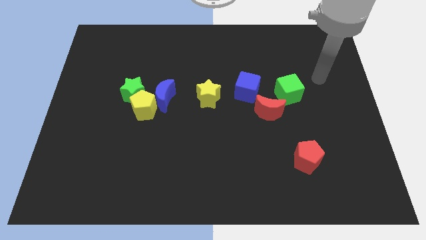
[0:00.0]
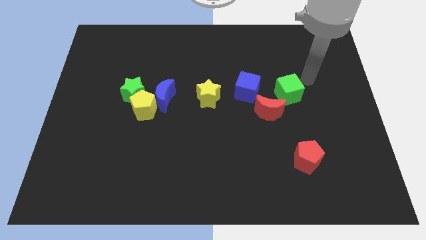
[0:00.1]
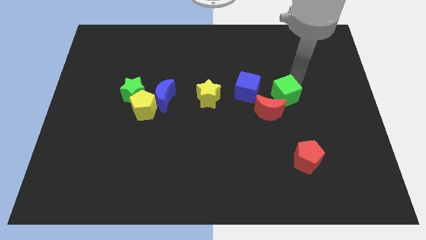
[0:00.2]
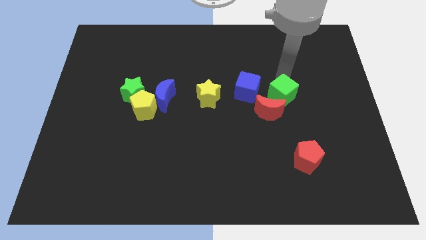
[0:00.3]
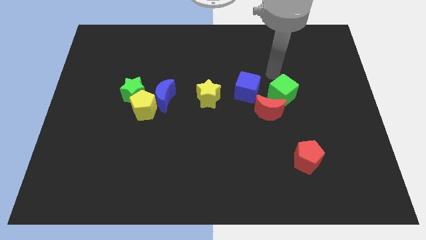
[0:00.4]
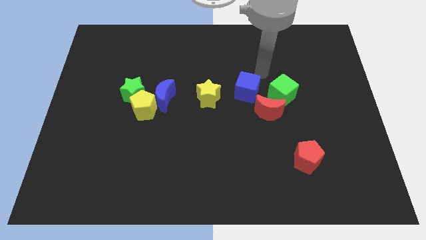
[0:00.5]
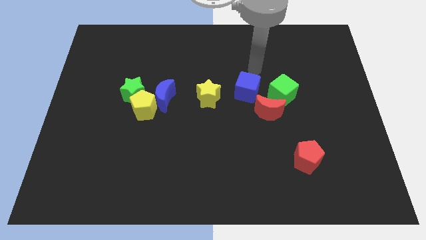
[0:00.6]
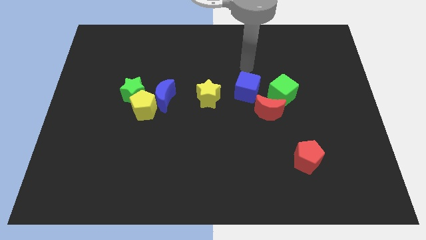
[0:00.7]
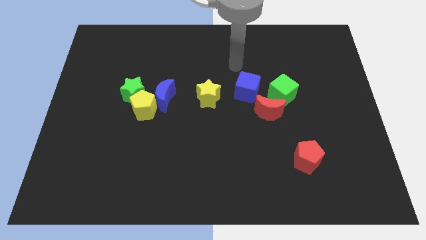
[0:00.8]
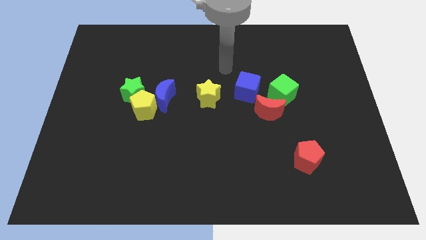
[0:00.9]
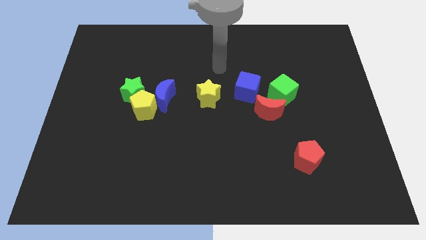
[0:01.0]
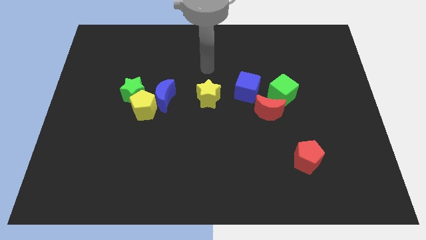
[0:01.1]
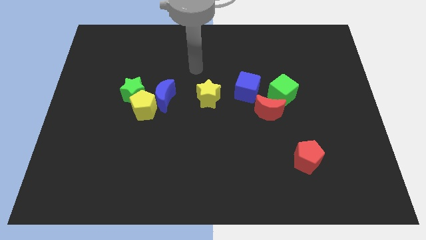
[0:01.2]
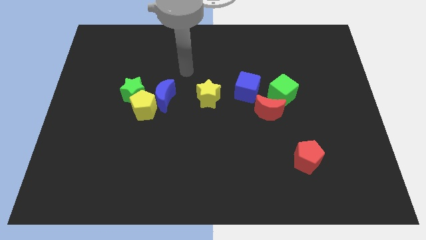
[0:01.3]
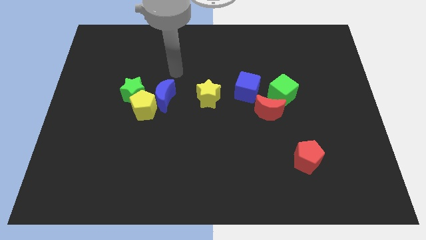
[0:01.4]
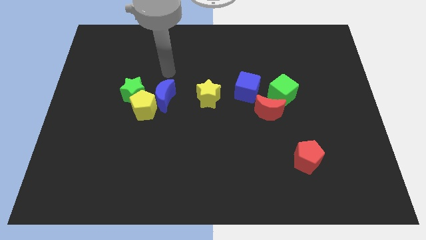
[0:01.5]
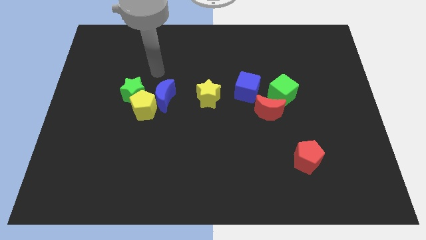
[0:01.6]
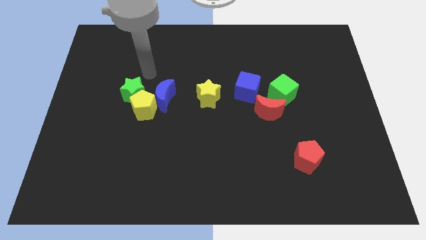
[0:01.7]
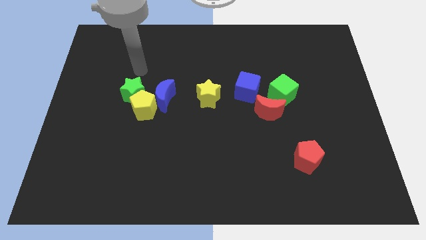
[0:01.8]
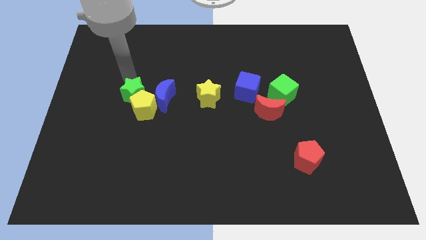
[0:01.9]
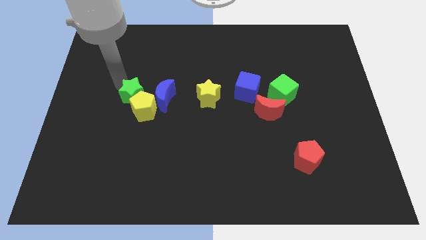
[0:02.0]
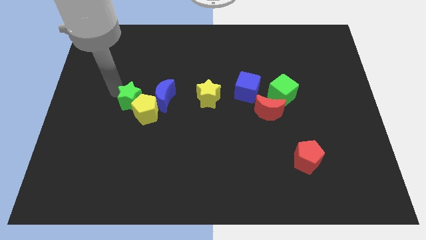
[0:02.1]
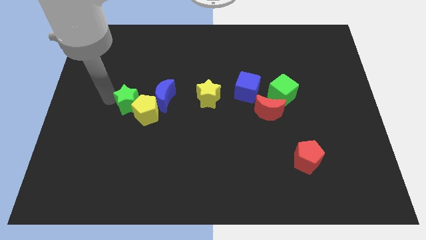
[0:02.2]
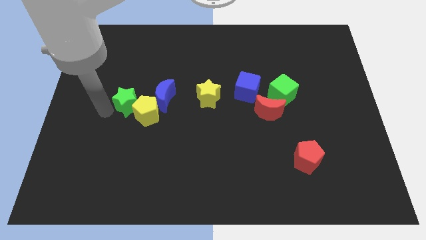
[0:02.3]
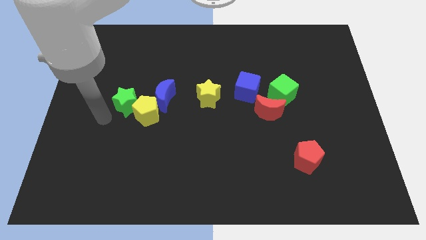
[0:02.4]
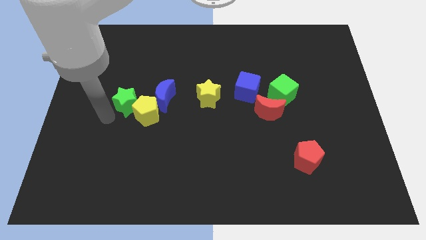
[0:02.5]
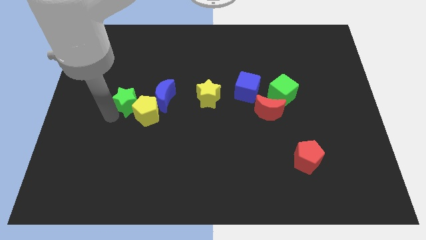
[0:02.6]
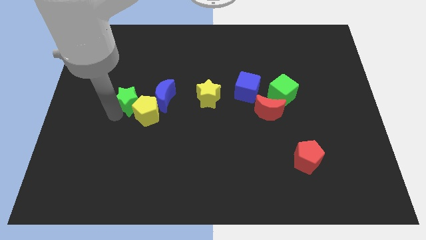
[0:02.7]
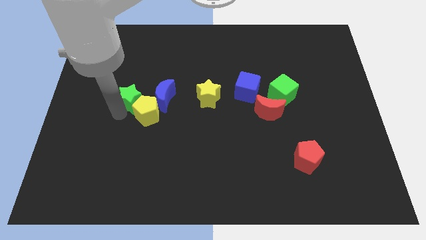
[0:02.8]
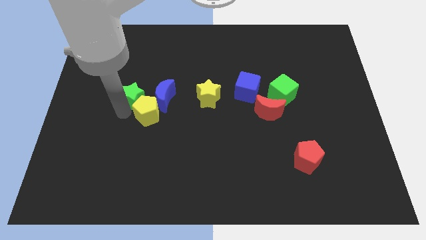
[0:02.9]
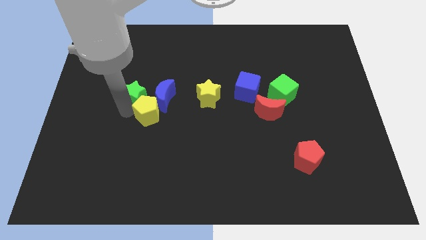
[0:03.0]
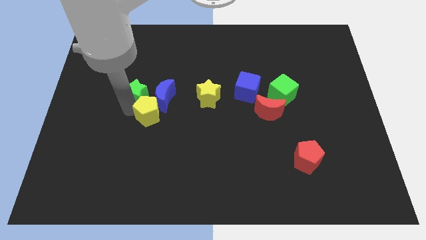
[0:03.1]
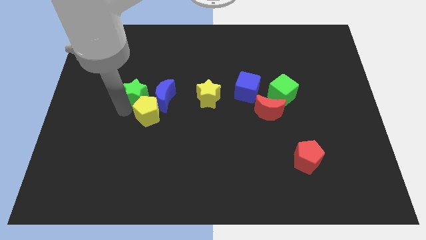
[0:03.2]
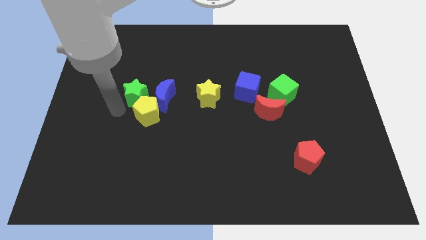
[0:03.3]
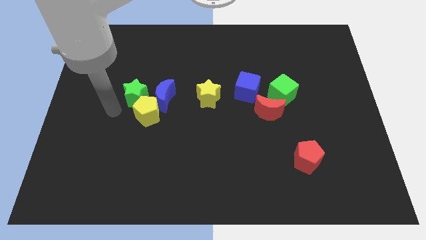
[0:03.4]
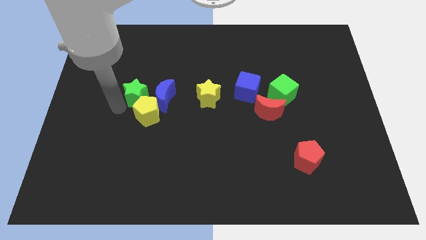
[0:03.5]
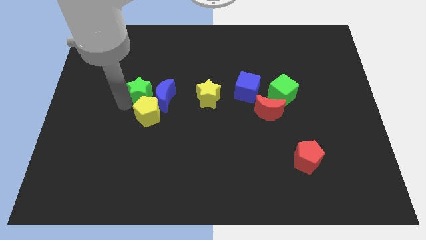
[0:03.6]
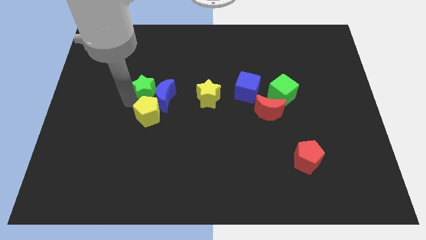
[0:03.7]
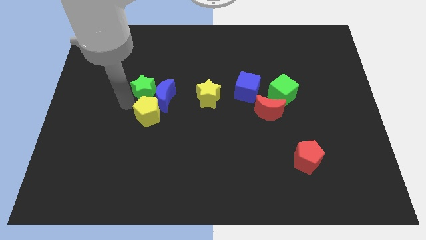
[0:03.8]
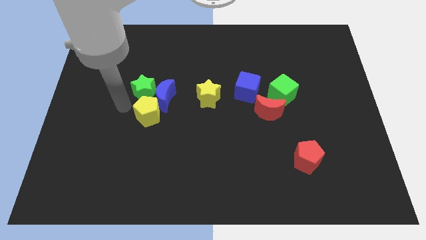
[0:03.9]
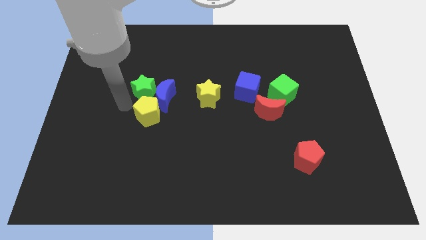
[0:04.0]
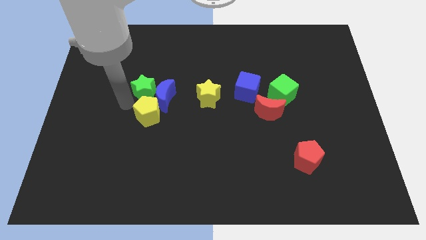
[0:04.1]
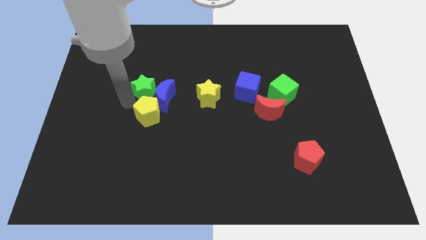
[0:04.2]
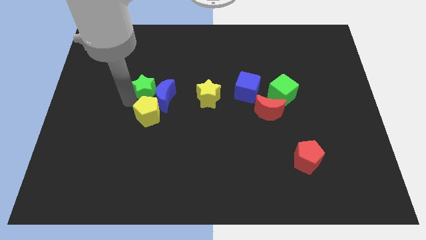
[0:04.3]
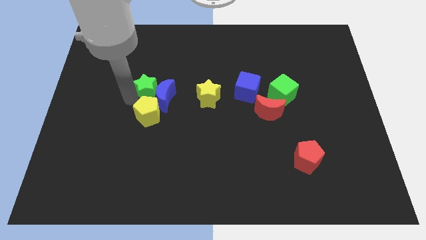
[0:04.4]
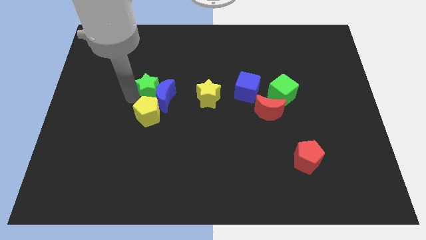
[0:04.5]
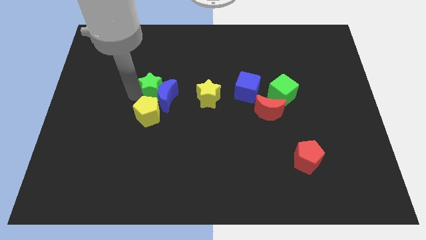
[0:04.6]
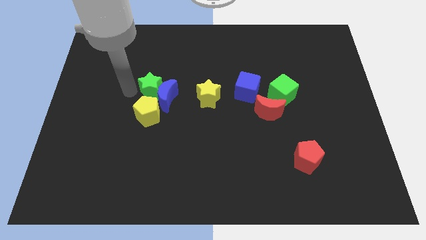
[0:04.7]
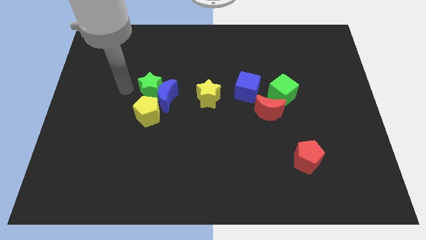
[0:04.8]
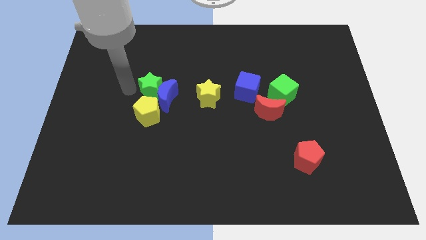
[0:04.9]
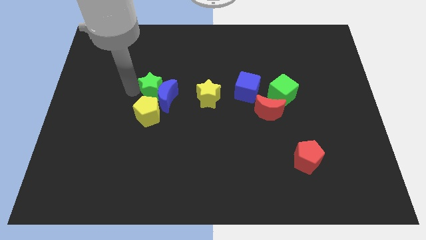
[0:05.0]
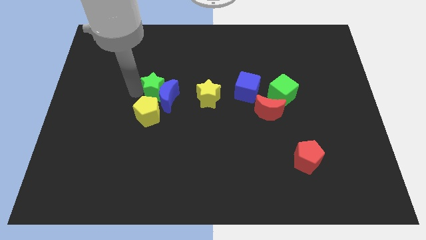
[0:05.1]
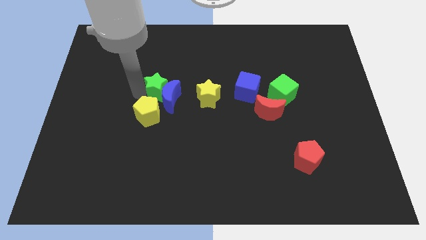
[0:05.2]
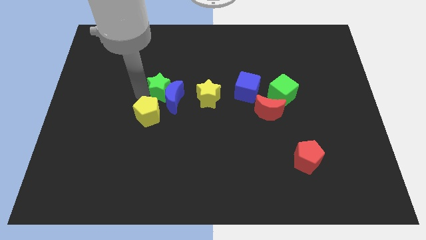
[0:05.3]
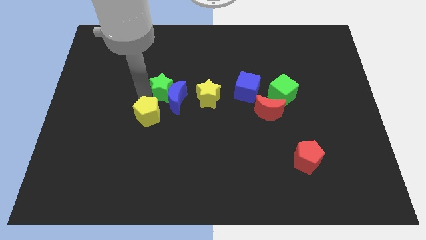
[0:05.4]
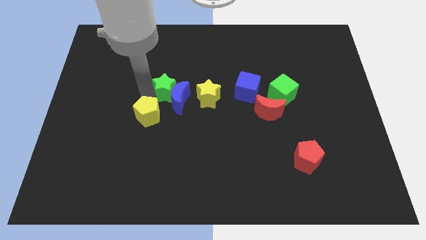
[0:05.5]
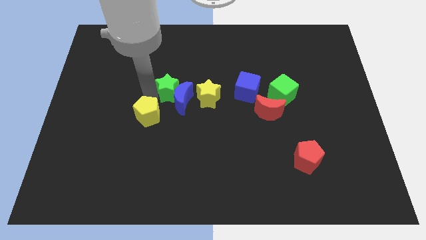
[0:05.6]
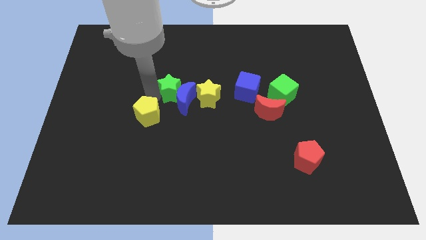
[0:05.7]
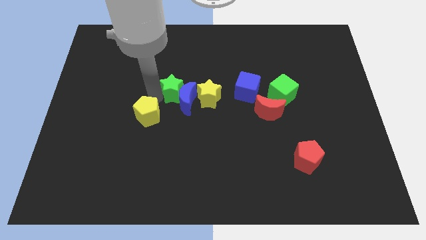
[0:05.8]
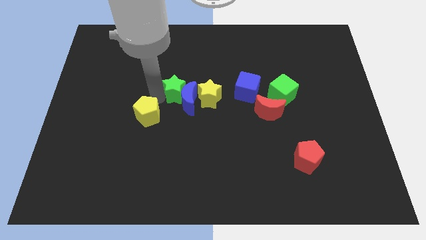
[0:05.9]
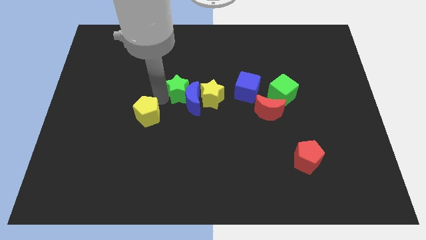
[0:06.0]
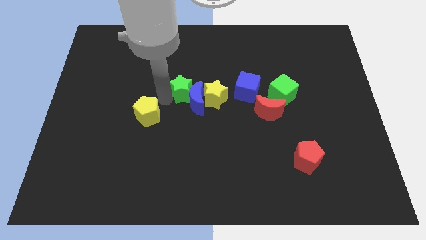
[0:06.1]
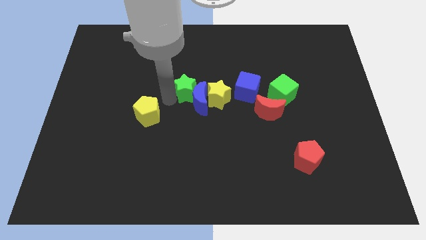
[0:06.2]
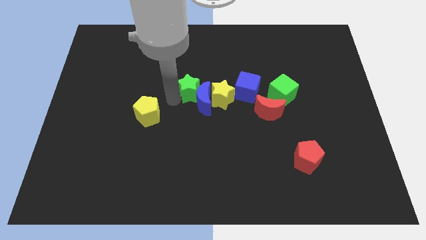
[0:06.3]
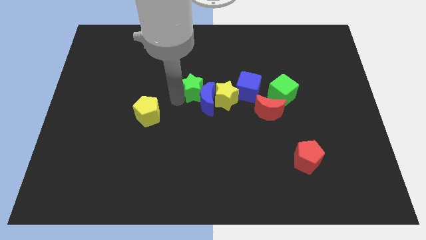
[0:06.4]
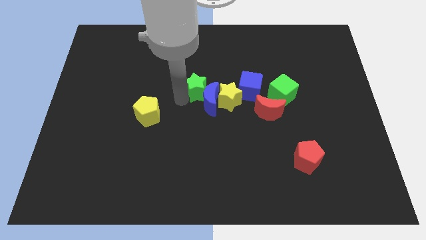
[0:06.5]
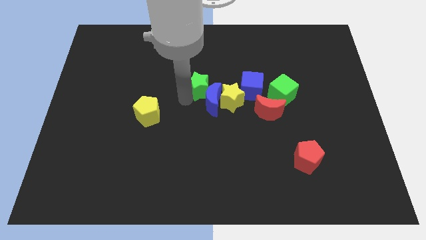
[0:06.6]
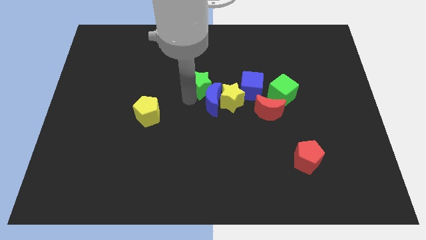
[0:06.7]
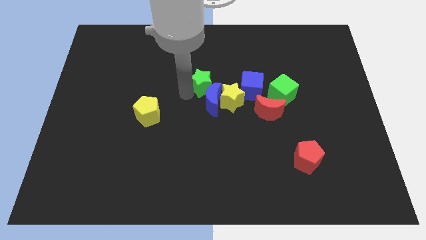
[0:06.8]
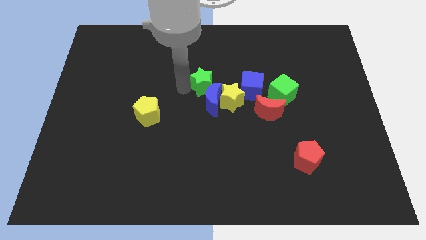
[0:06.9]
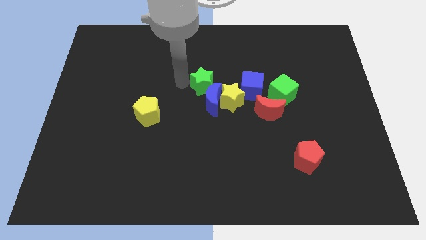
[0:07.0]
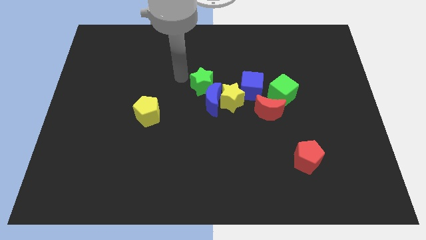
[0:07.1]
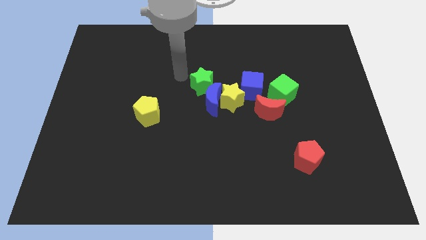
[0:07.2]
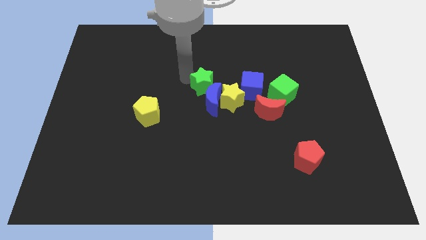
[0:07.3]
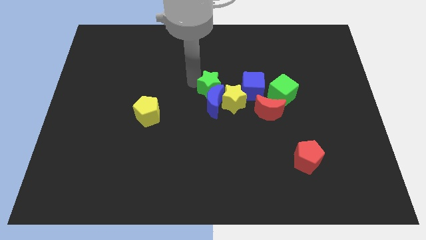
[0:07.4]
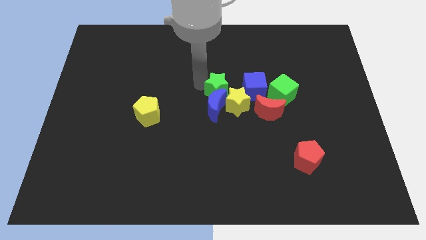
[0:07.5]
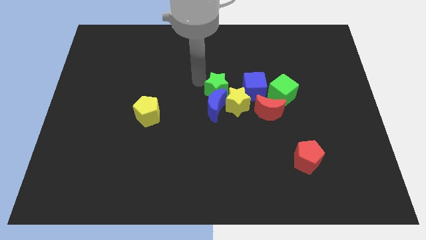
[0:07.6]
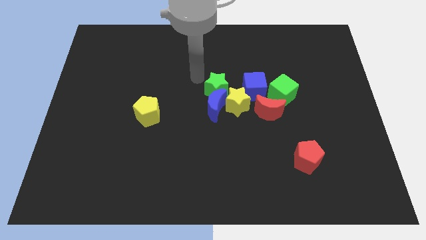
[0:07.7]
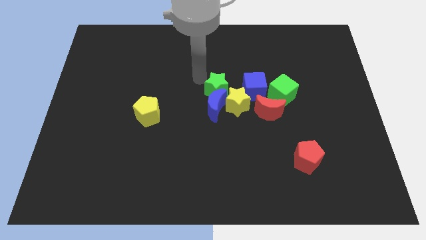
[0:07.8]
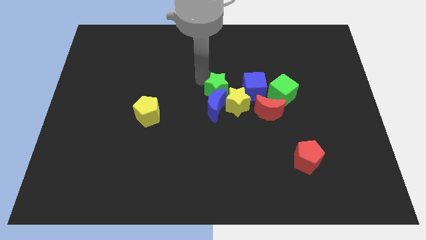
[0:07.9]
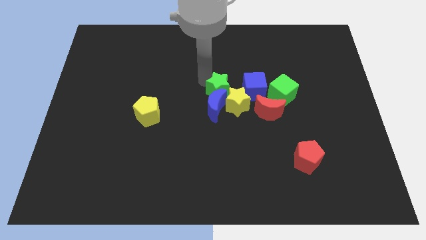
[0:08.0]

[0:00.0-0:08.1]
move the green star towards the yellow star
